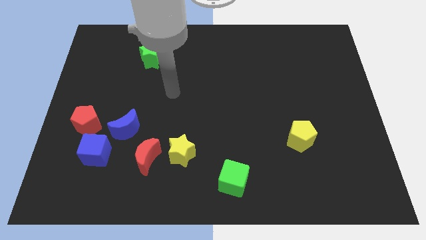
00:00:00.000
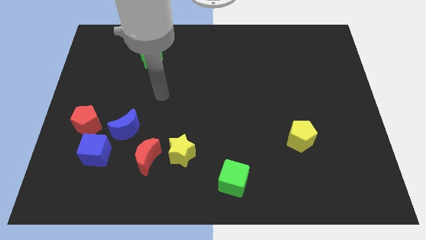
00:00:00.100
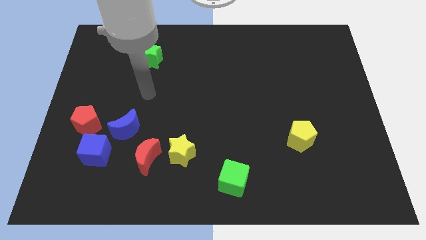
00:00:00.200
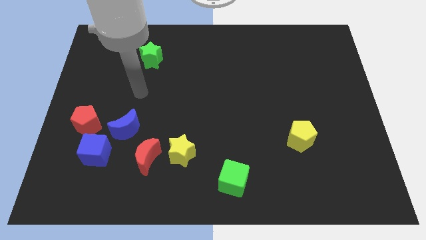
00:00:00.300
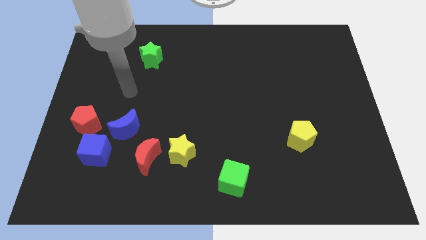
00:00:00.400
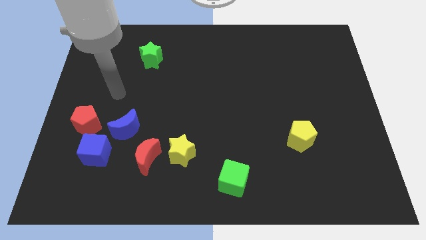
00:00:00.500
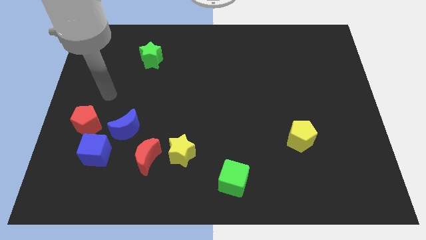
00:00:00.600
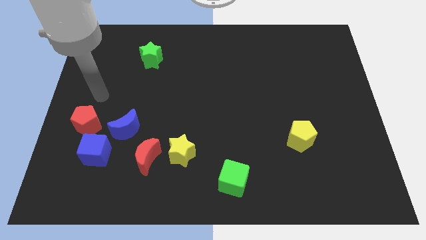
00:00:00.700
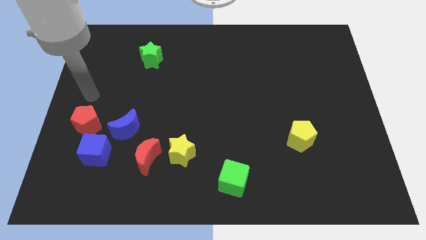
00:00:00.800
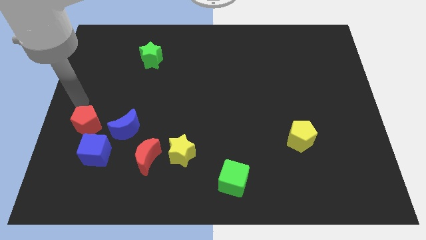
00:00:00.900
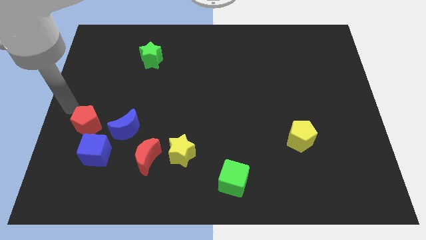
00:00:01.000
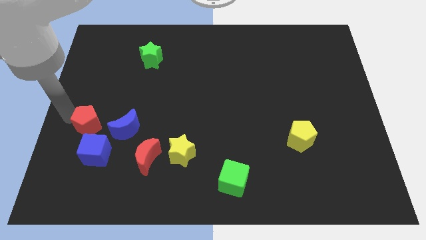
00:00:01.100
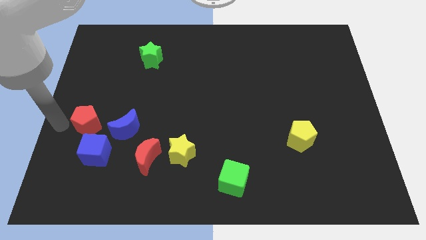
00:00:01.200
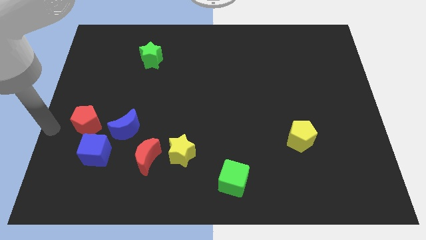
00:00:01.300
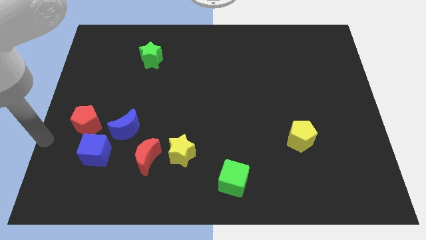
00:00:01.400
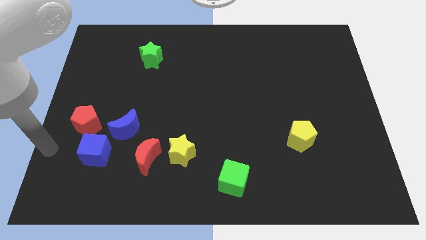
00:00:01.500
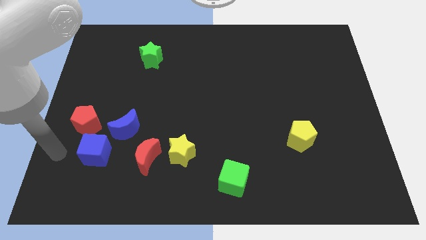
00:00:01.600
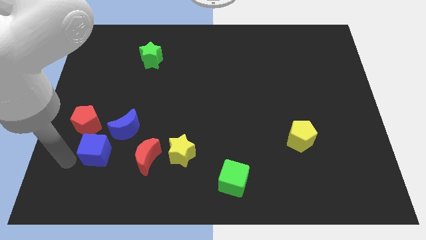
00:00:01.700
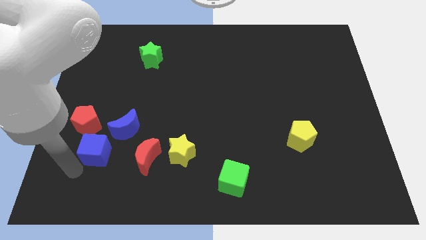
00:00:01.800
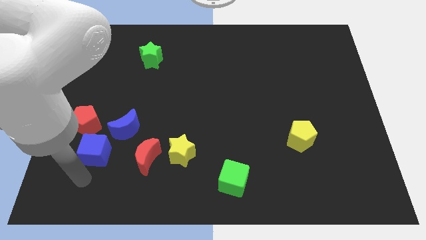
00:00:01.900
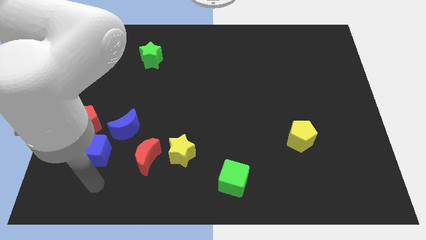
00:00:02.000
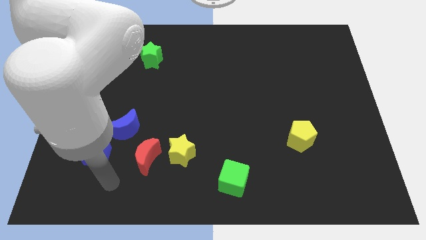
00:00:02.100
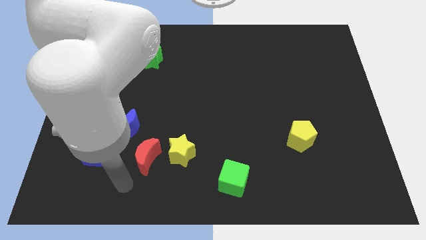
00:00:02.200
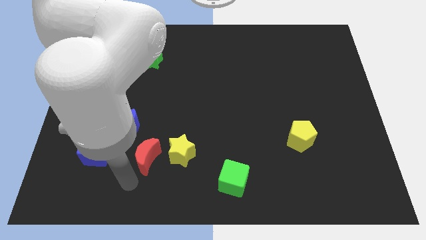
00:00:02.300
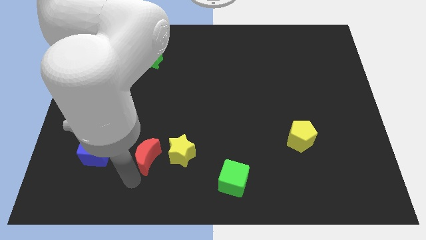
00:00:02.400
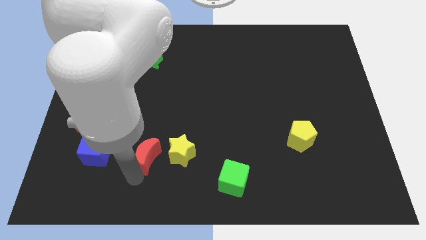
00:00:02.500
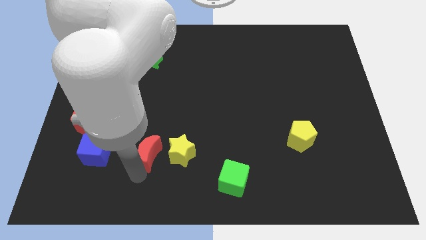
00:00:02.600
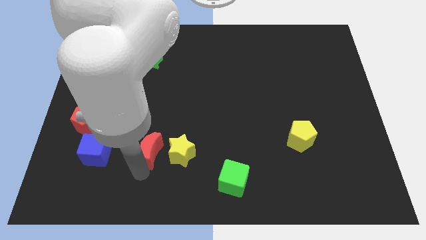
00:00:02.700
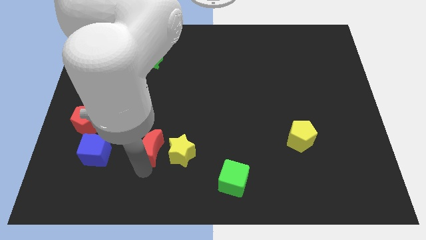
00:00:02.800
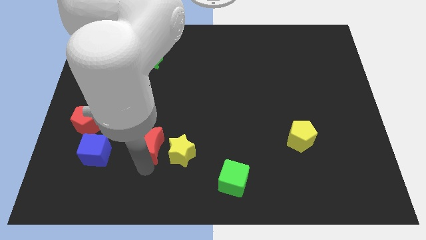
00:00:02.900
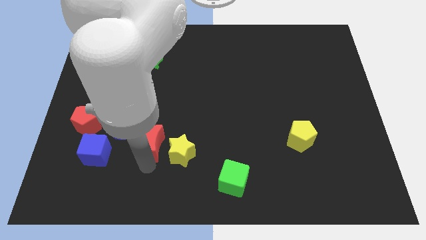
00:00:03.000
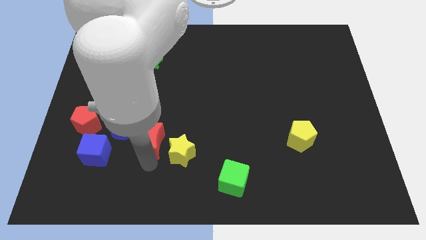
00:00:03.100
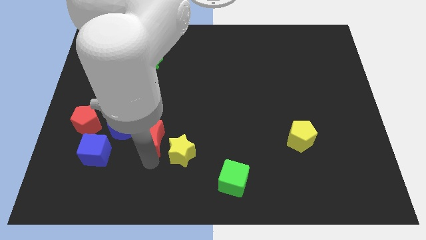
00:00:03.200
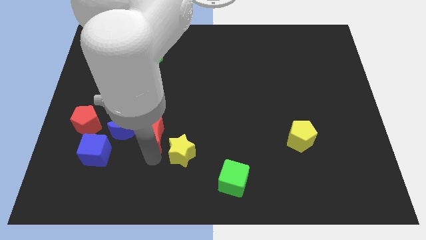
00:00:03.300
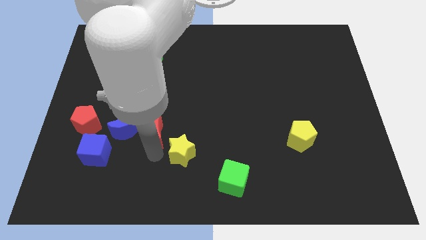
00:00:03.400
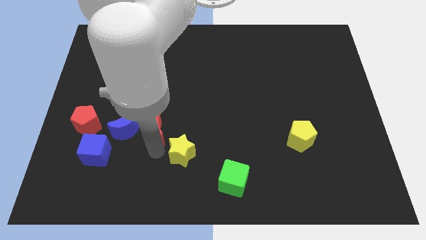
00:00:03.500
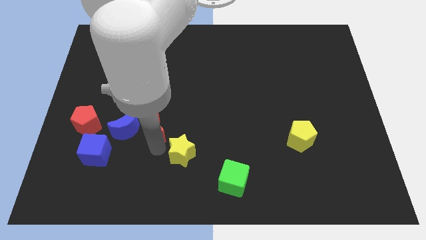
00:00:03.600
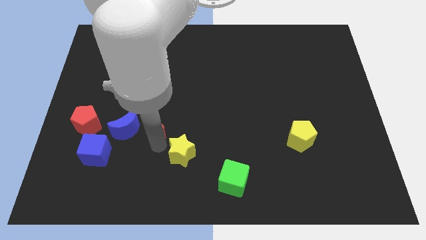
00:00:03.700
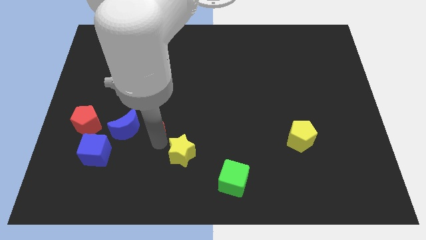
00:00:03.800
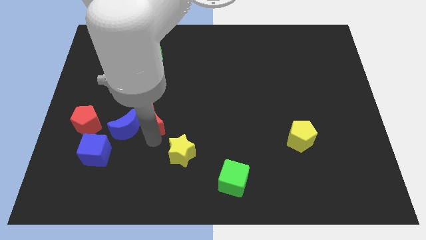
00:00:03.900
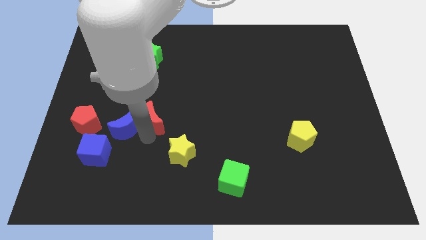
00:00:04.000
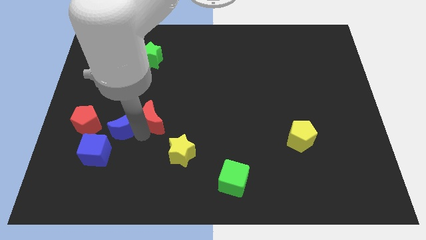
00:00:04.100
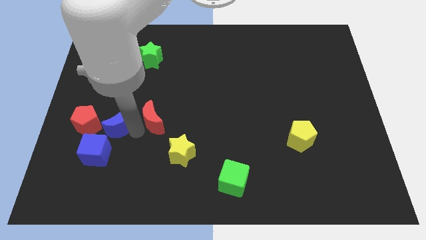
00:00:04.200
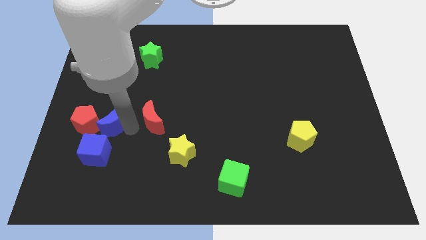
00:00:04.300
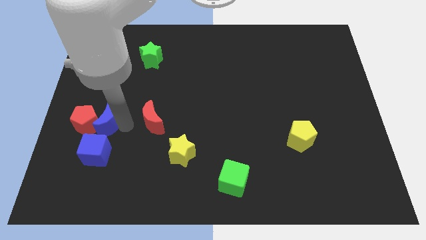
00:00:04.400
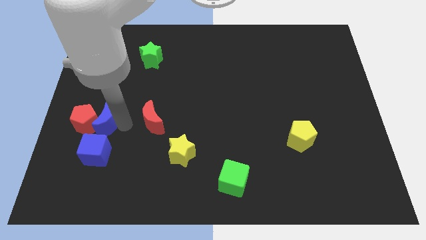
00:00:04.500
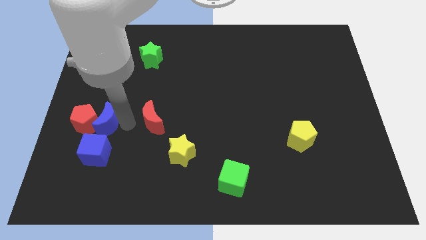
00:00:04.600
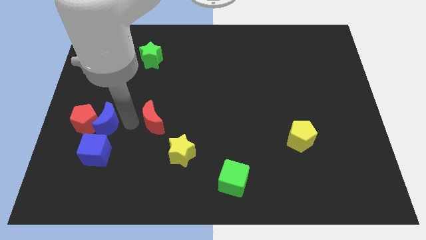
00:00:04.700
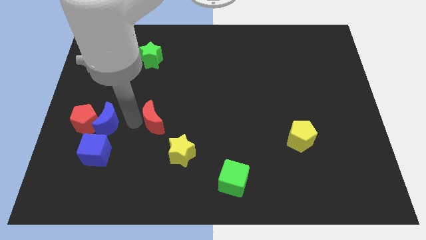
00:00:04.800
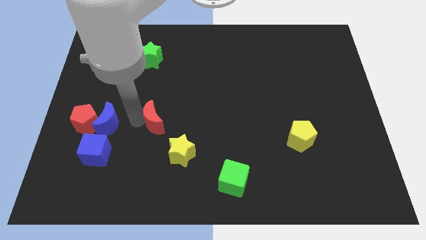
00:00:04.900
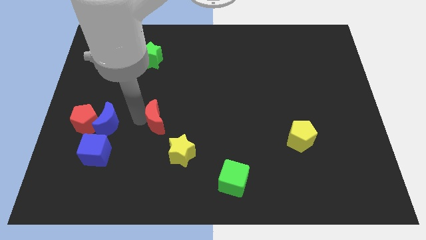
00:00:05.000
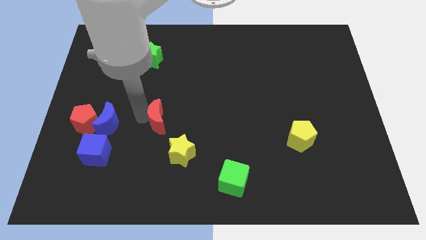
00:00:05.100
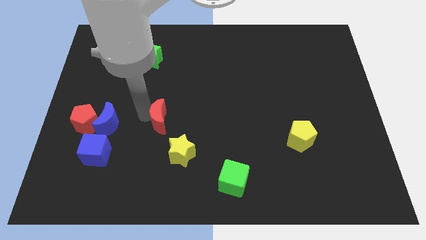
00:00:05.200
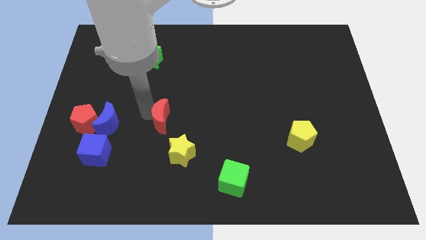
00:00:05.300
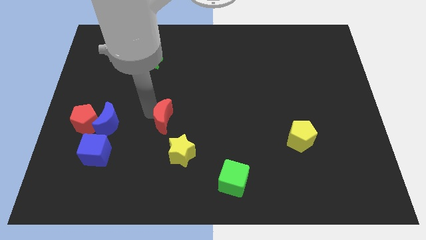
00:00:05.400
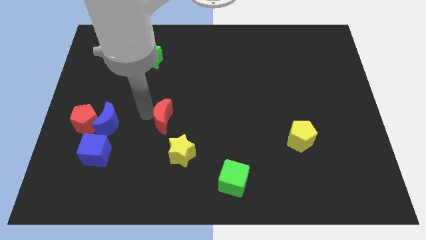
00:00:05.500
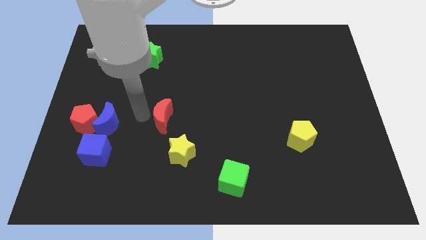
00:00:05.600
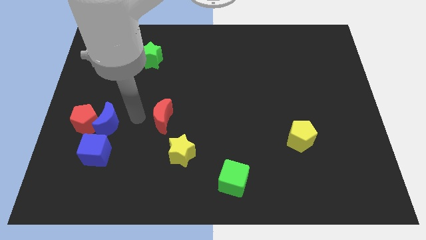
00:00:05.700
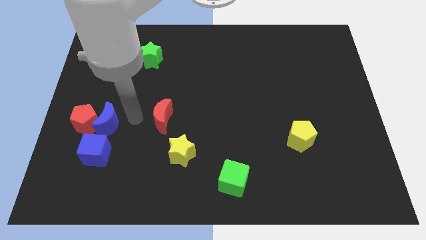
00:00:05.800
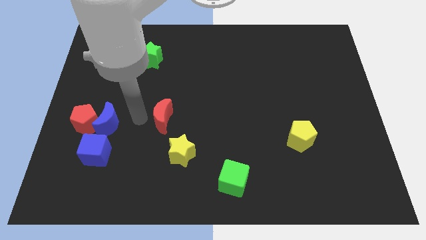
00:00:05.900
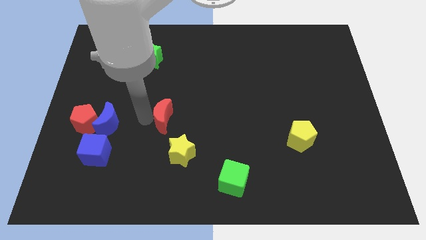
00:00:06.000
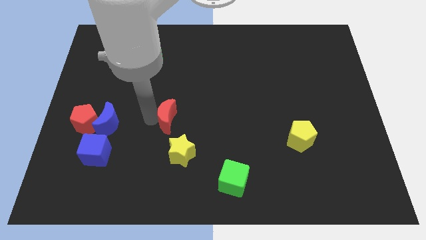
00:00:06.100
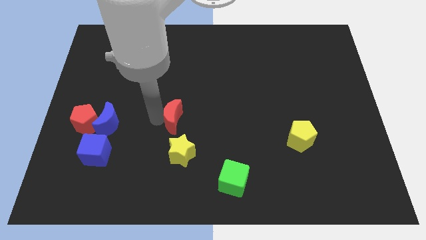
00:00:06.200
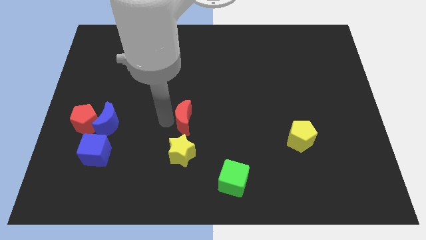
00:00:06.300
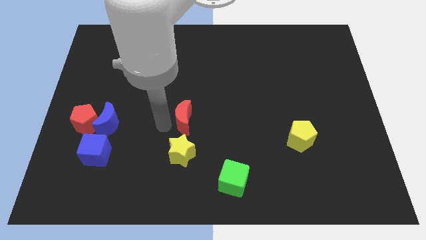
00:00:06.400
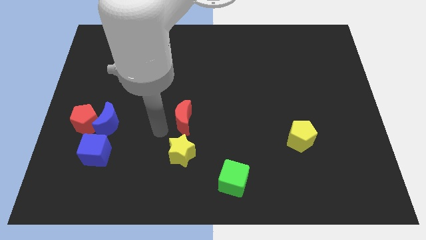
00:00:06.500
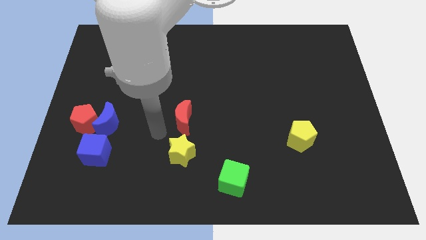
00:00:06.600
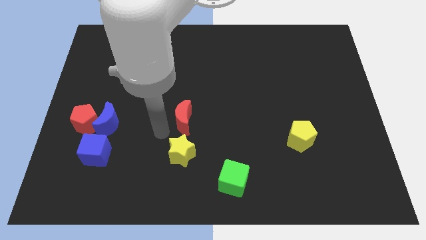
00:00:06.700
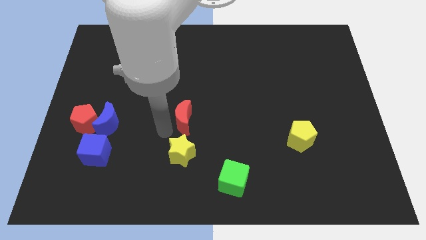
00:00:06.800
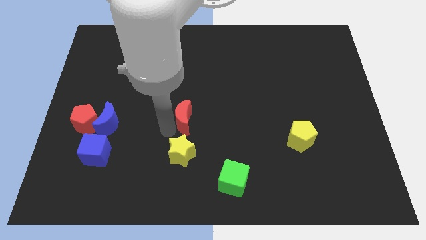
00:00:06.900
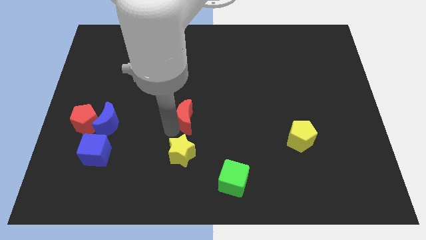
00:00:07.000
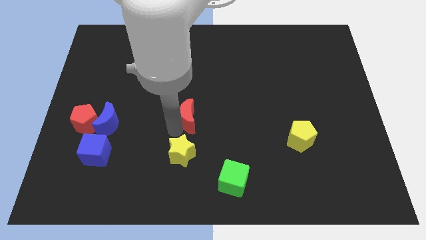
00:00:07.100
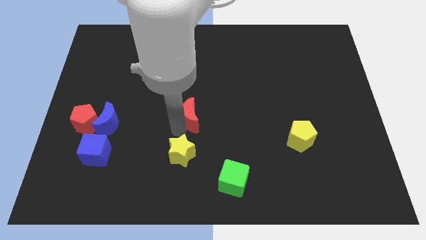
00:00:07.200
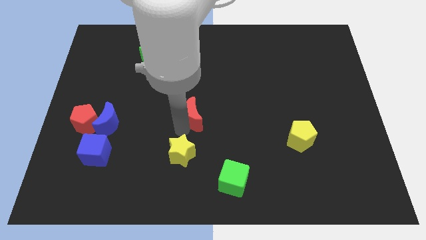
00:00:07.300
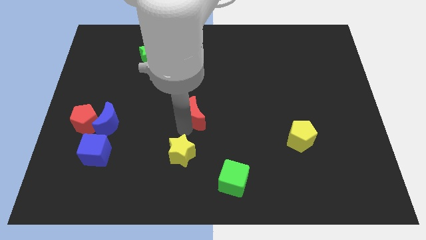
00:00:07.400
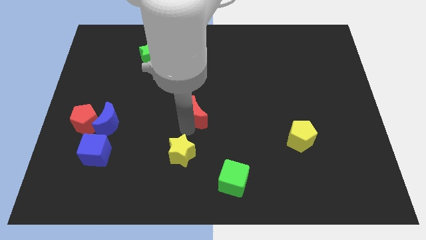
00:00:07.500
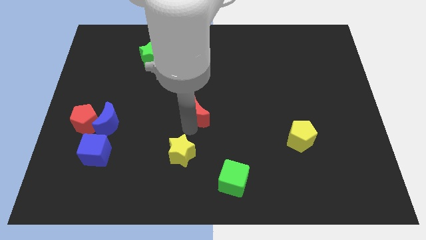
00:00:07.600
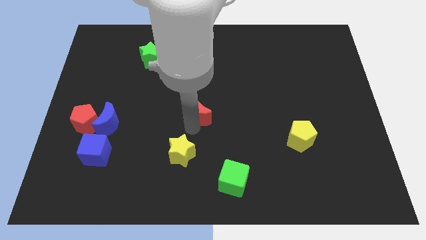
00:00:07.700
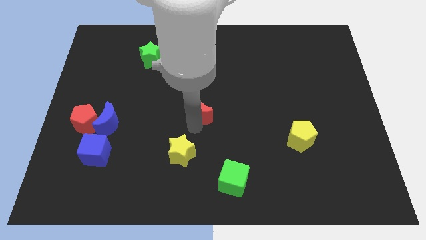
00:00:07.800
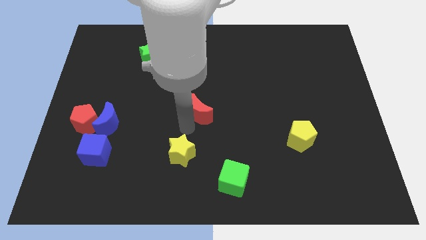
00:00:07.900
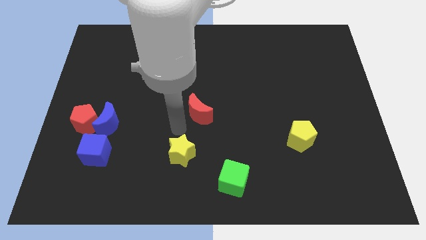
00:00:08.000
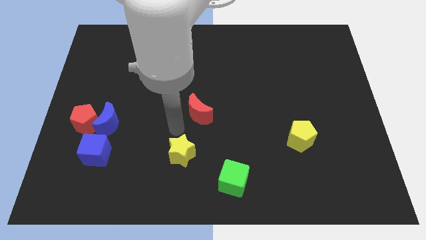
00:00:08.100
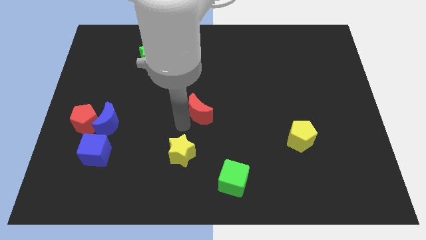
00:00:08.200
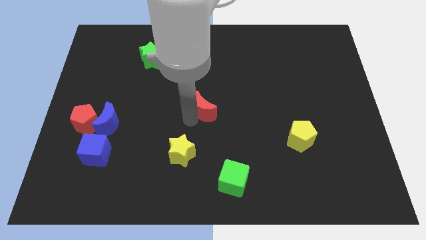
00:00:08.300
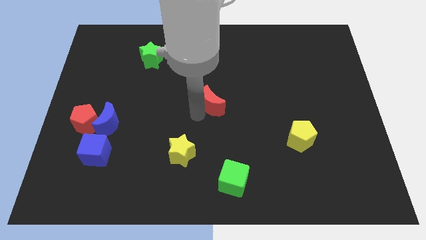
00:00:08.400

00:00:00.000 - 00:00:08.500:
move the red moon upwards and to the right diagonally
